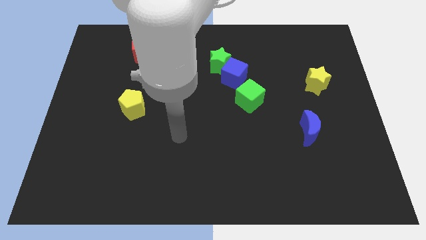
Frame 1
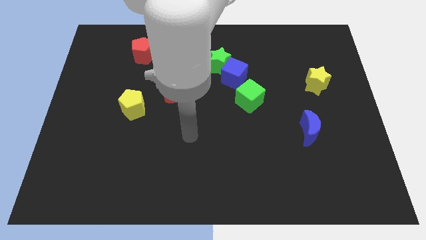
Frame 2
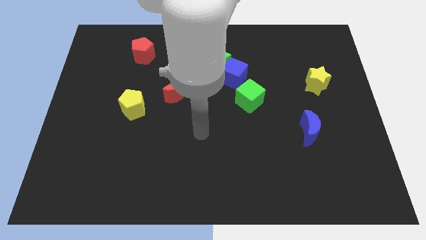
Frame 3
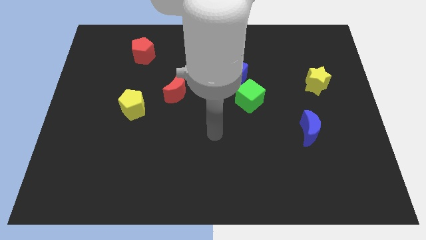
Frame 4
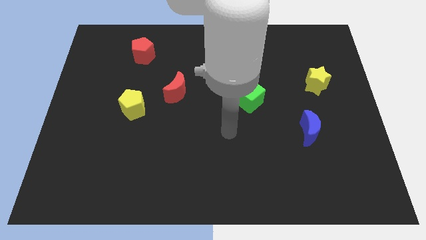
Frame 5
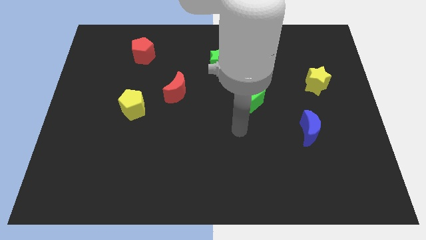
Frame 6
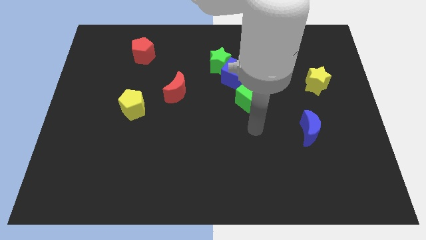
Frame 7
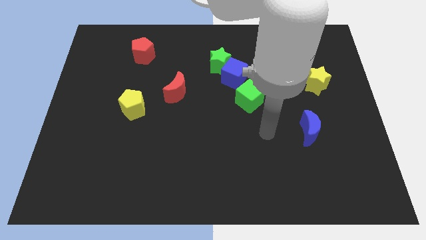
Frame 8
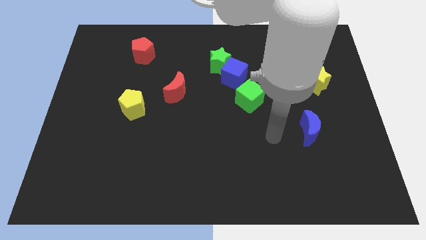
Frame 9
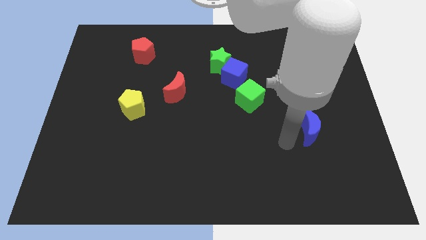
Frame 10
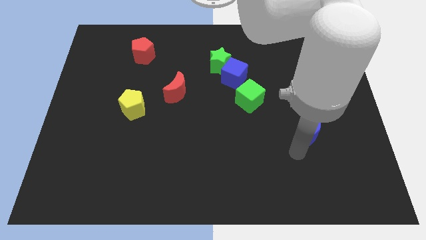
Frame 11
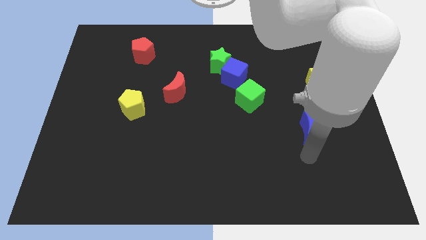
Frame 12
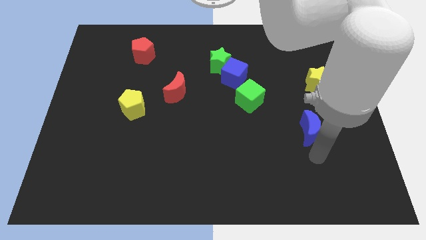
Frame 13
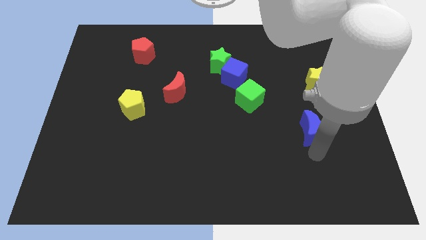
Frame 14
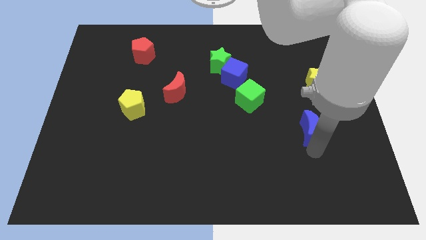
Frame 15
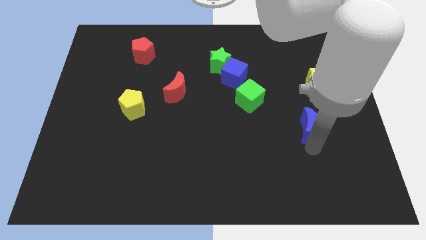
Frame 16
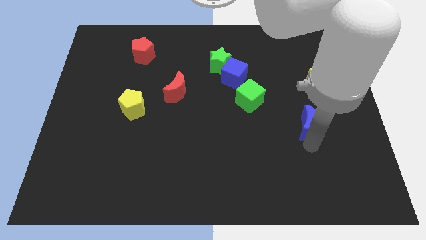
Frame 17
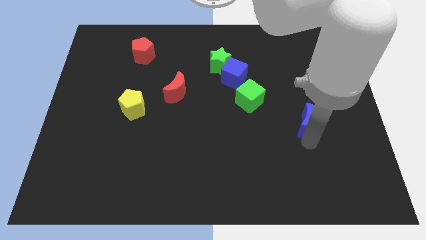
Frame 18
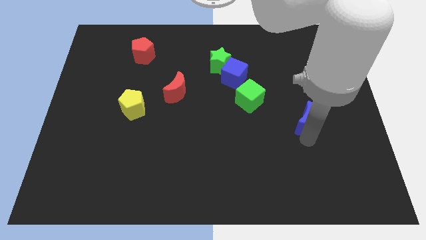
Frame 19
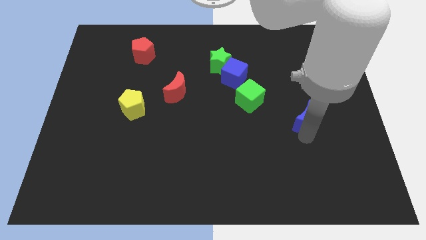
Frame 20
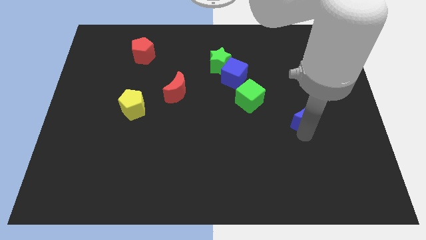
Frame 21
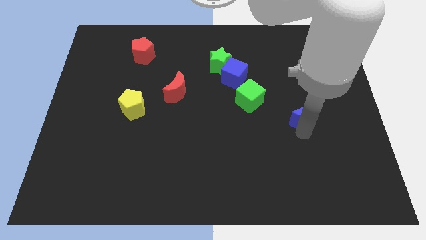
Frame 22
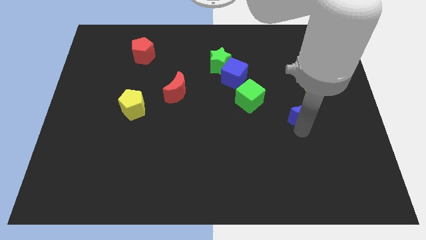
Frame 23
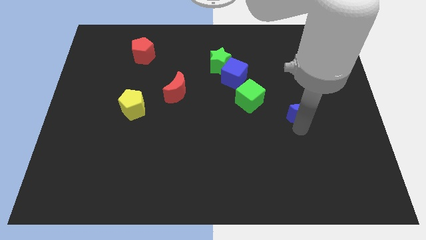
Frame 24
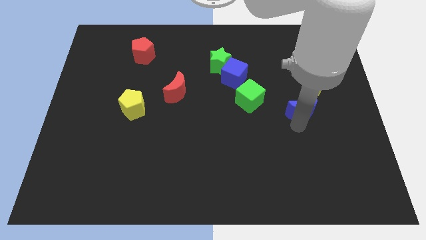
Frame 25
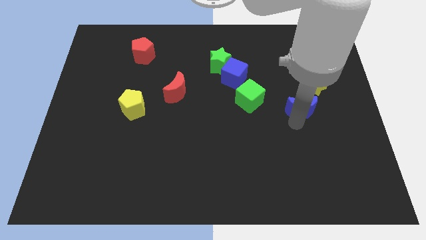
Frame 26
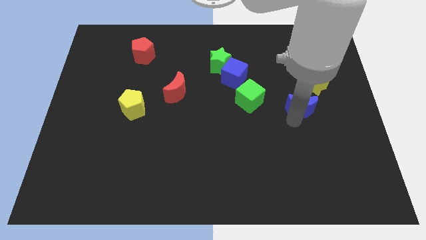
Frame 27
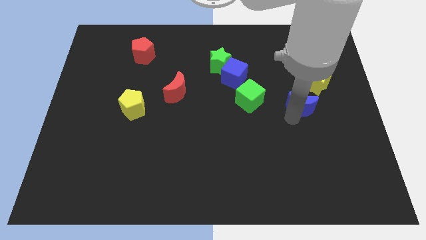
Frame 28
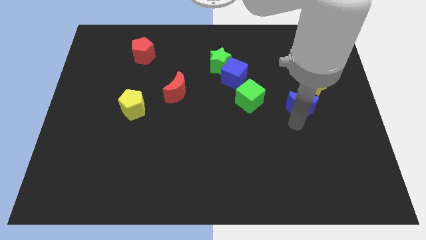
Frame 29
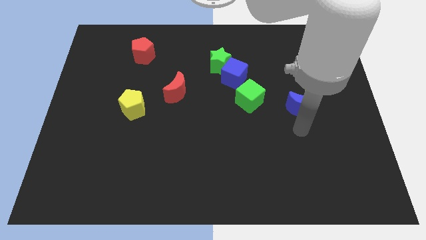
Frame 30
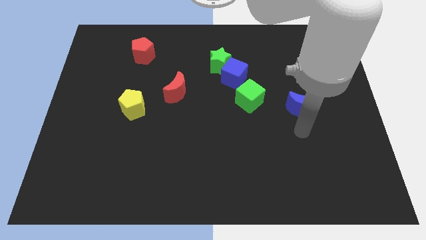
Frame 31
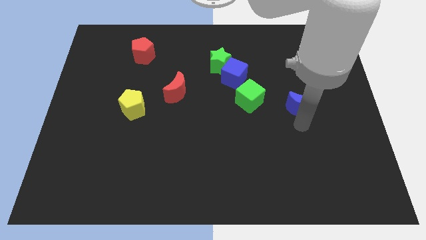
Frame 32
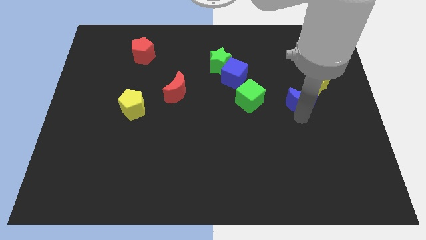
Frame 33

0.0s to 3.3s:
slightly push the blue moon upwards

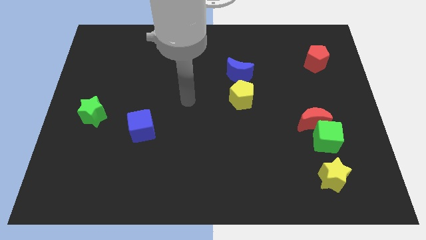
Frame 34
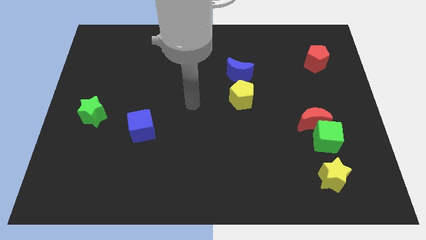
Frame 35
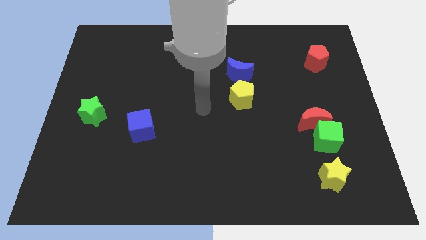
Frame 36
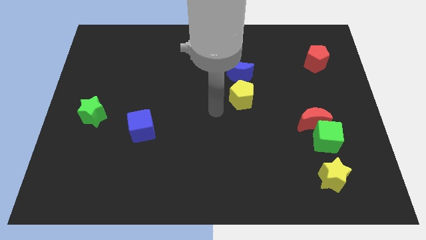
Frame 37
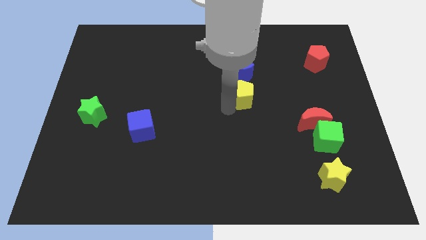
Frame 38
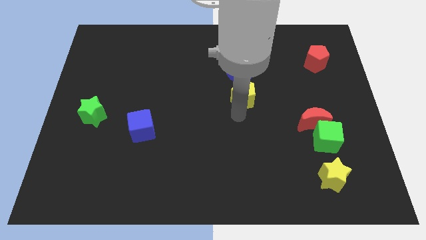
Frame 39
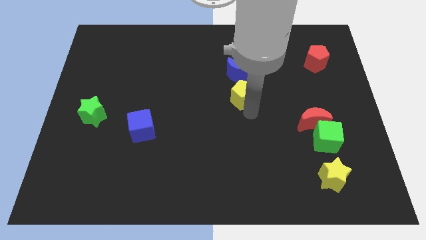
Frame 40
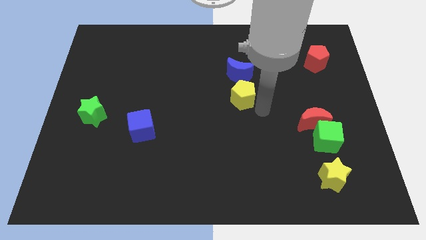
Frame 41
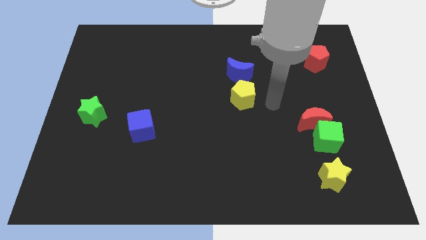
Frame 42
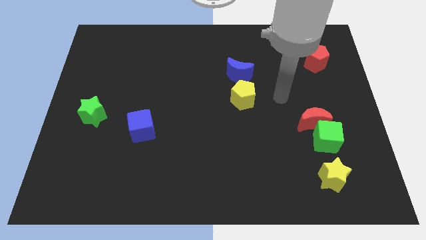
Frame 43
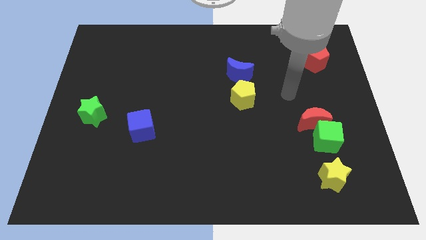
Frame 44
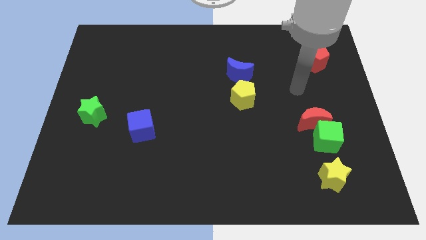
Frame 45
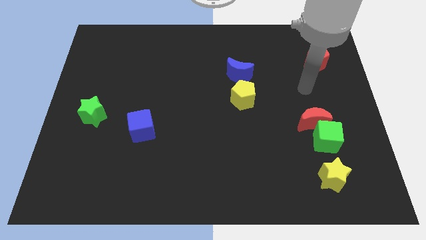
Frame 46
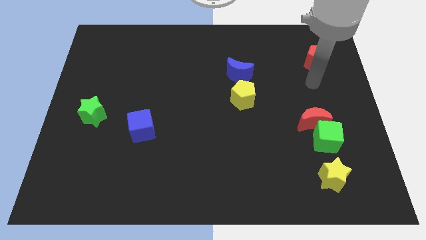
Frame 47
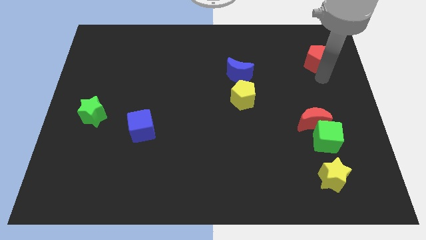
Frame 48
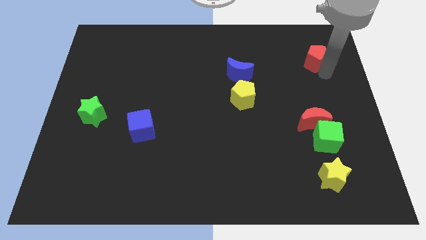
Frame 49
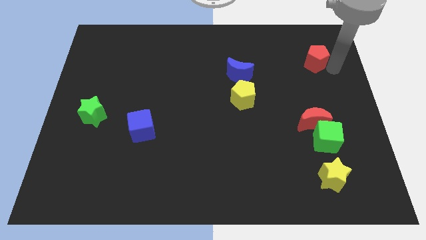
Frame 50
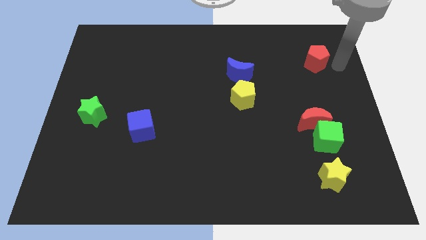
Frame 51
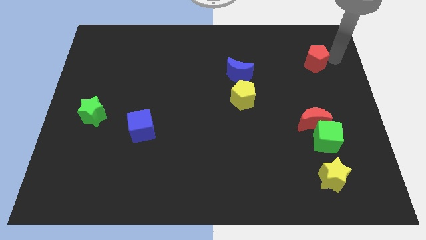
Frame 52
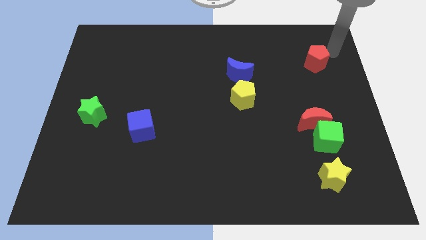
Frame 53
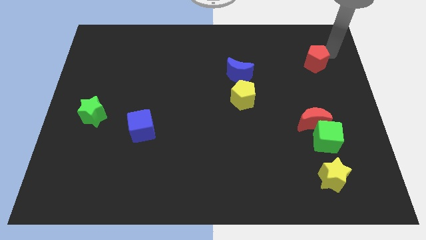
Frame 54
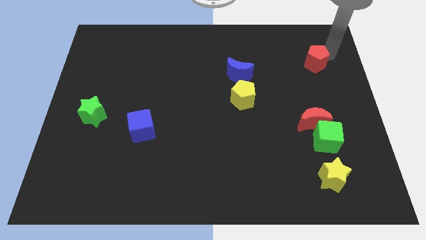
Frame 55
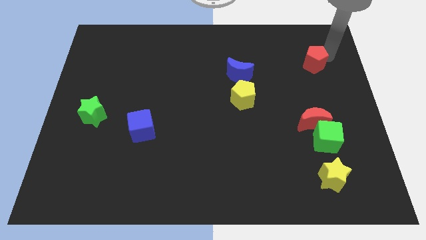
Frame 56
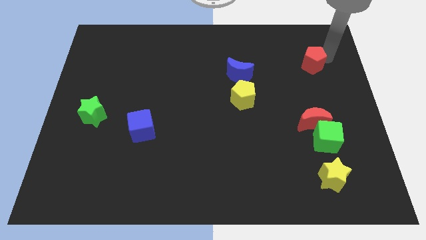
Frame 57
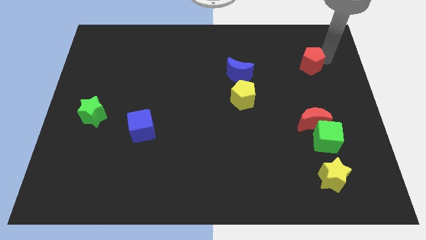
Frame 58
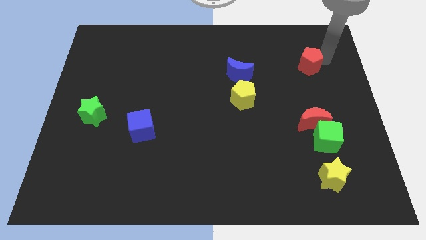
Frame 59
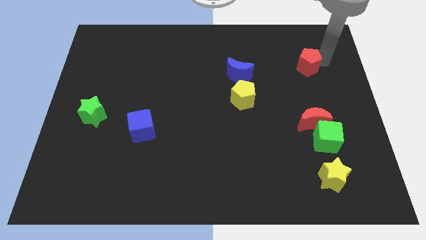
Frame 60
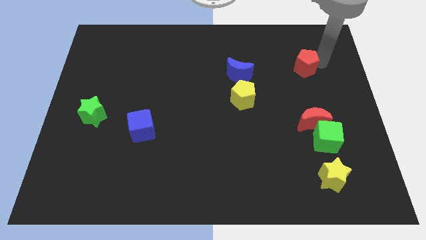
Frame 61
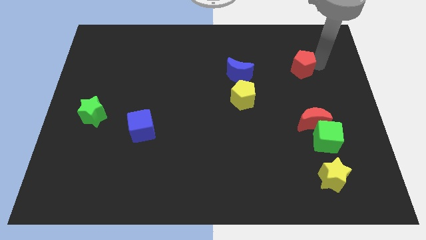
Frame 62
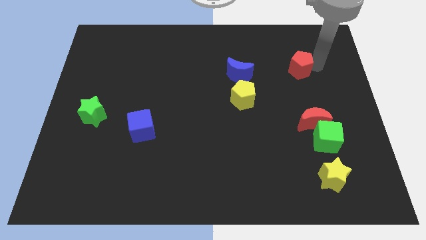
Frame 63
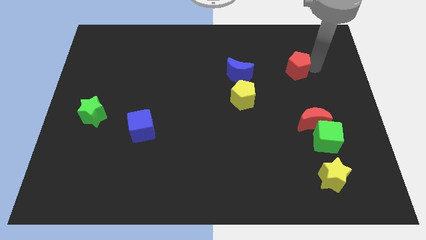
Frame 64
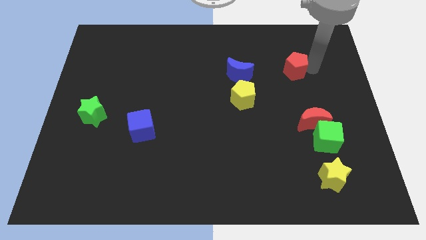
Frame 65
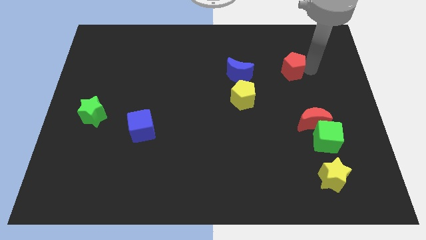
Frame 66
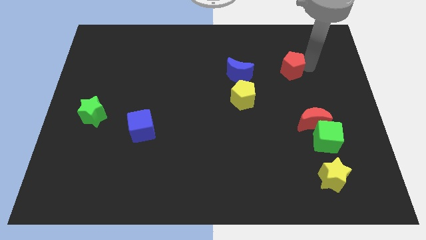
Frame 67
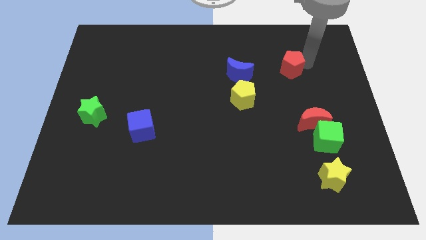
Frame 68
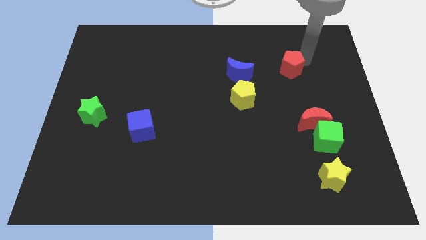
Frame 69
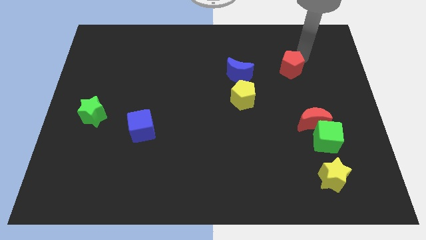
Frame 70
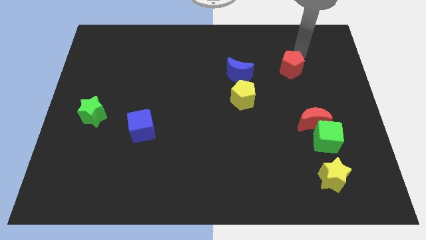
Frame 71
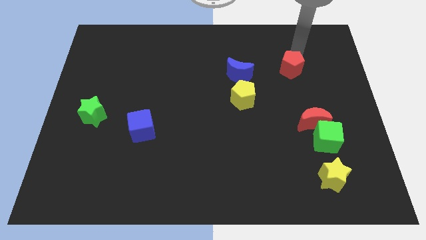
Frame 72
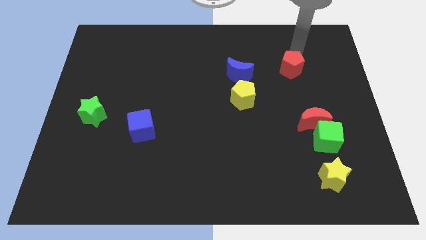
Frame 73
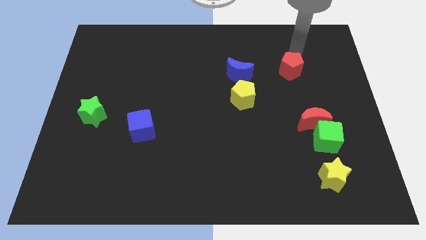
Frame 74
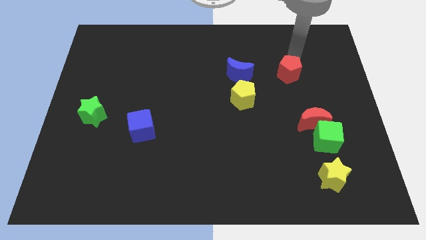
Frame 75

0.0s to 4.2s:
move the red pentagon down and to the left somewhat

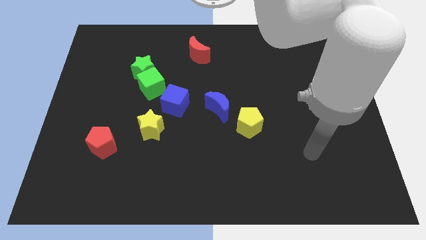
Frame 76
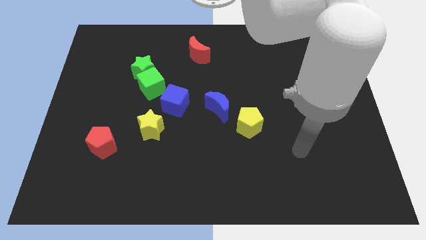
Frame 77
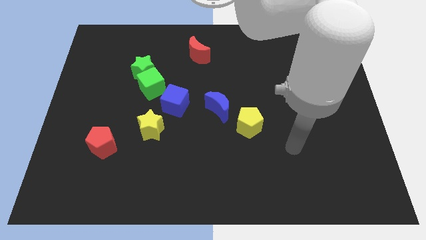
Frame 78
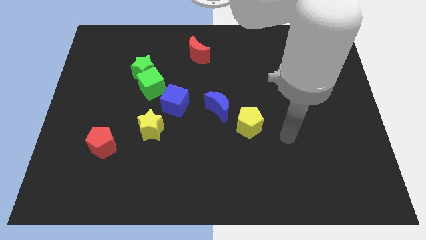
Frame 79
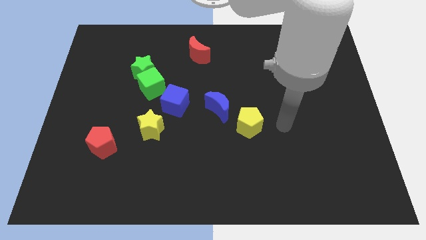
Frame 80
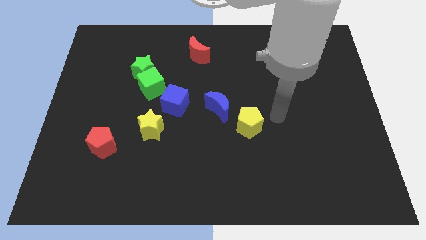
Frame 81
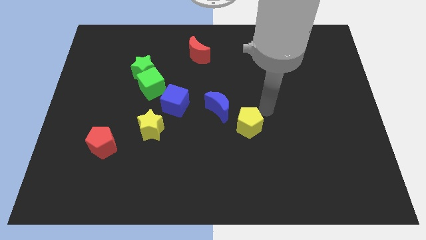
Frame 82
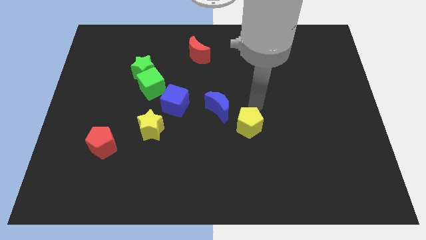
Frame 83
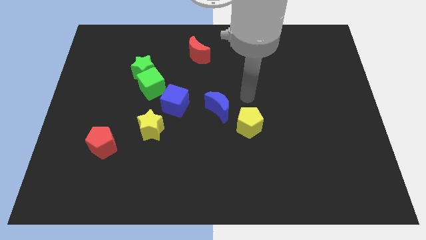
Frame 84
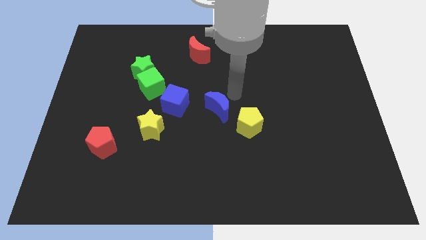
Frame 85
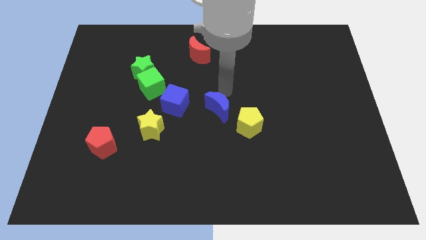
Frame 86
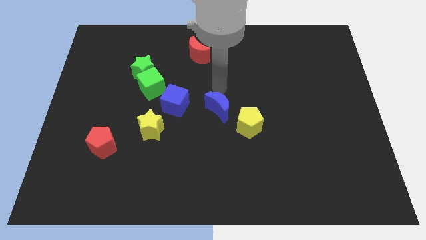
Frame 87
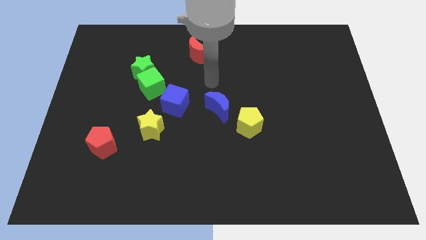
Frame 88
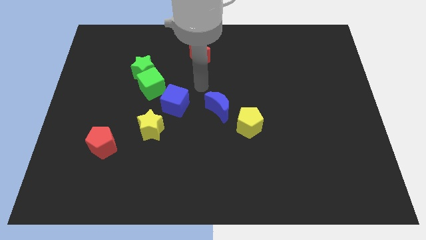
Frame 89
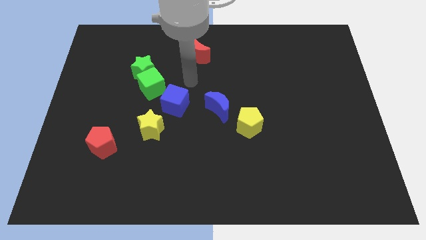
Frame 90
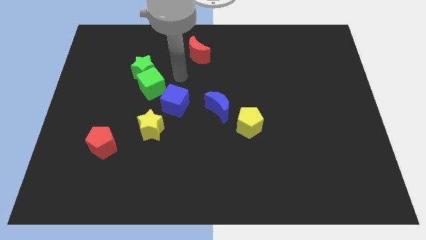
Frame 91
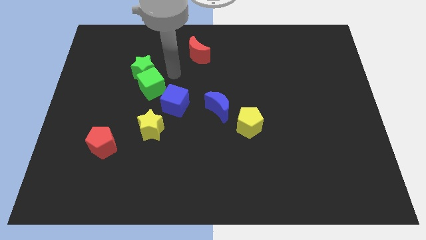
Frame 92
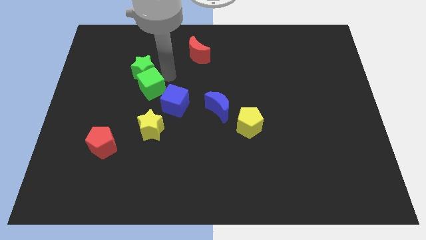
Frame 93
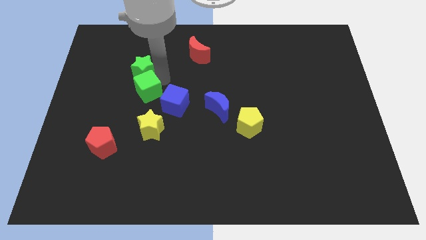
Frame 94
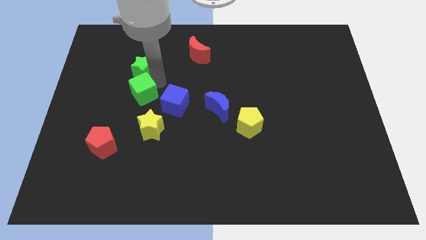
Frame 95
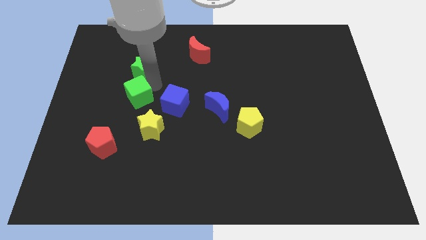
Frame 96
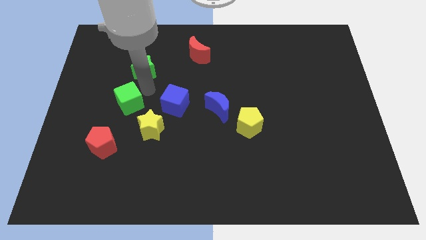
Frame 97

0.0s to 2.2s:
move the green cube downwards and to the left slightly
